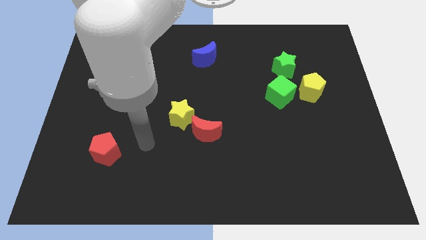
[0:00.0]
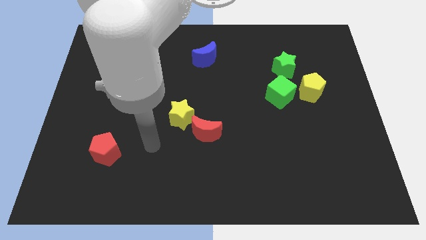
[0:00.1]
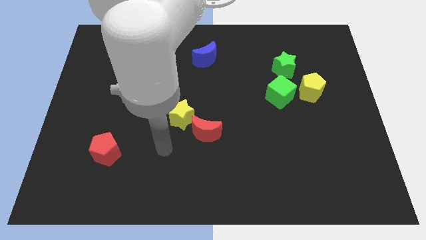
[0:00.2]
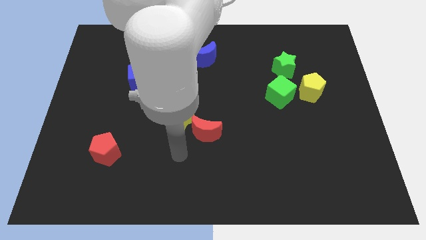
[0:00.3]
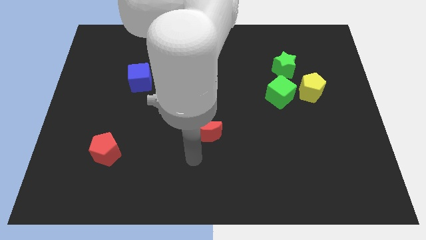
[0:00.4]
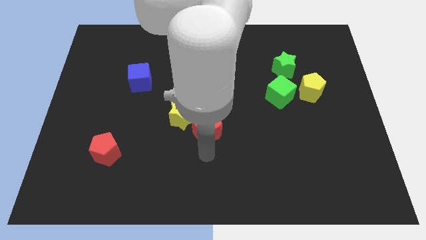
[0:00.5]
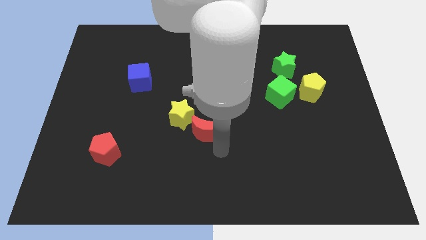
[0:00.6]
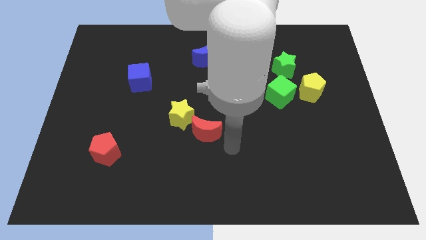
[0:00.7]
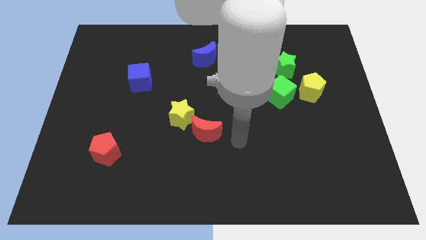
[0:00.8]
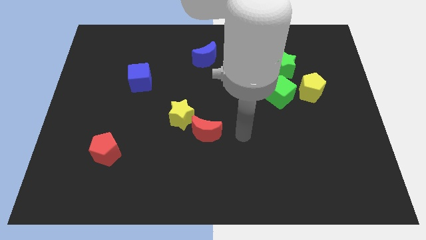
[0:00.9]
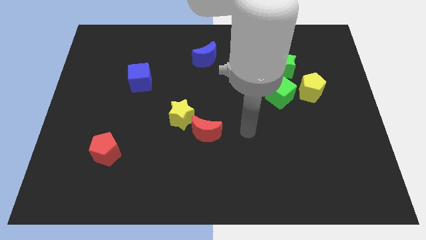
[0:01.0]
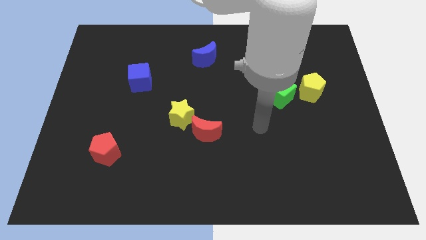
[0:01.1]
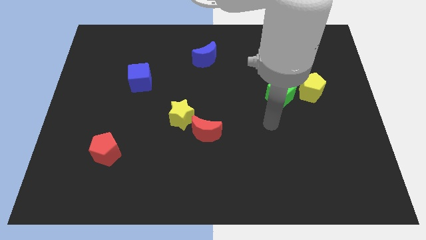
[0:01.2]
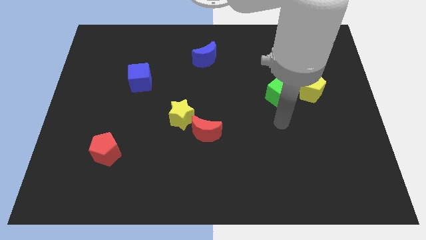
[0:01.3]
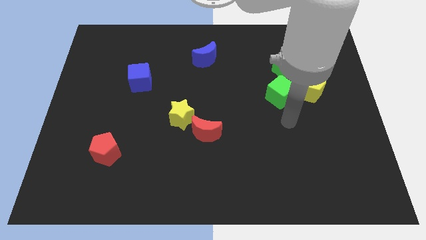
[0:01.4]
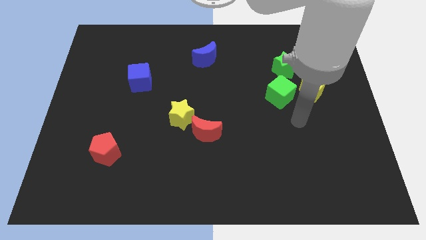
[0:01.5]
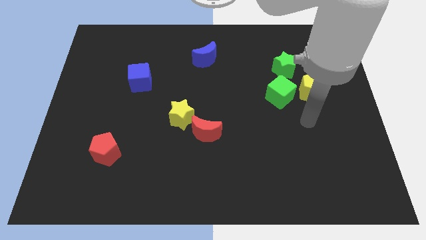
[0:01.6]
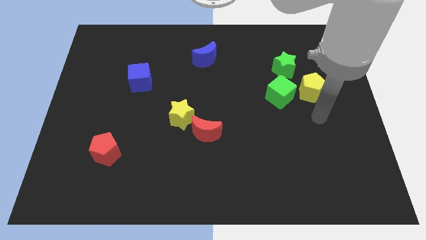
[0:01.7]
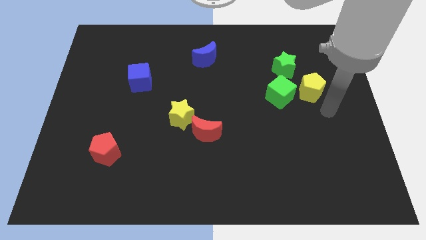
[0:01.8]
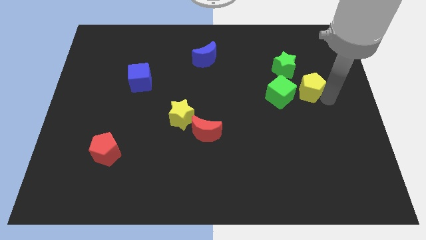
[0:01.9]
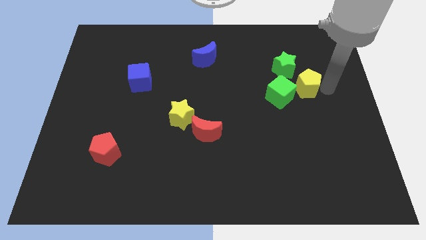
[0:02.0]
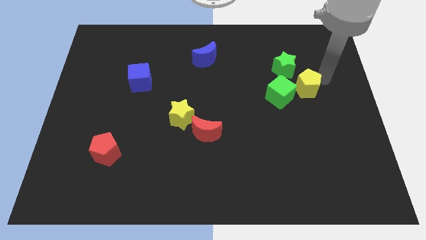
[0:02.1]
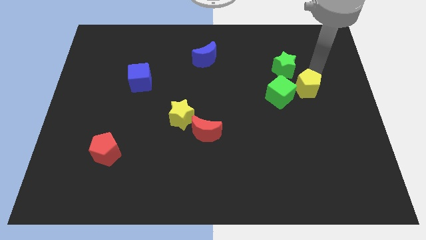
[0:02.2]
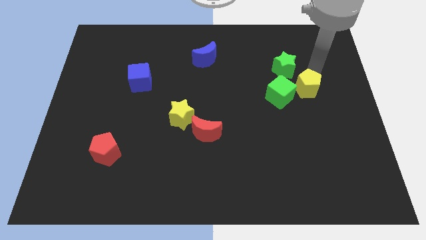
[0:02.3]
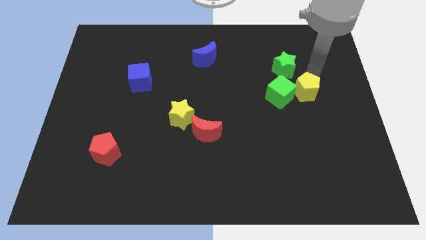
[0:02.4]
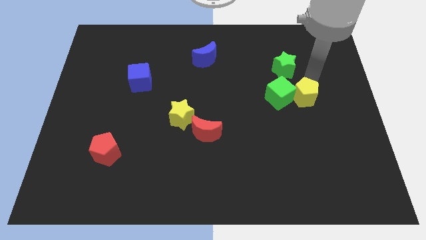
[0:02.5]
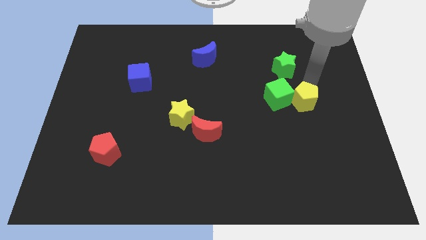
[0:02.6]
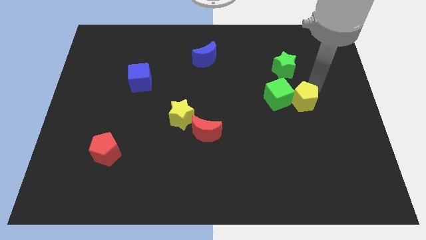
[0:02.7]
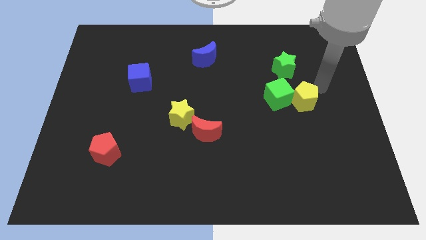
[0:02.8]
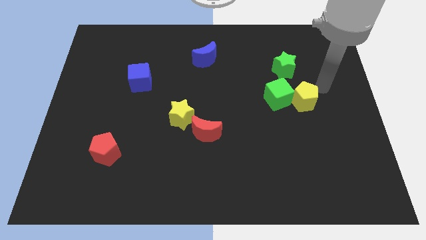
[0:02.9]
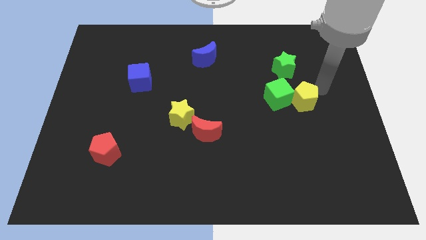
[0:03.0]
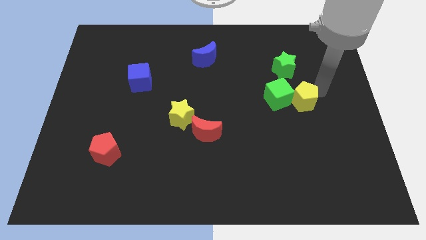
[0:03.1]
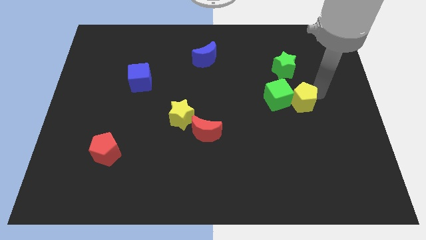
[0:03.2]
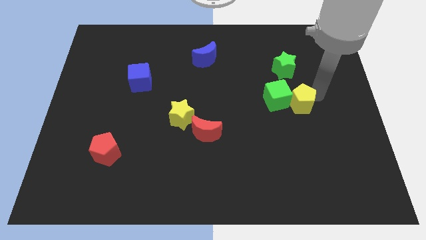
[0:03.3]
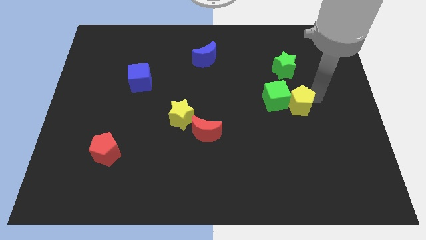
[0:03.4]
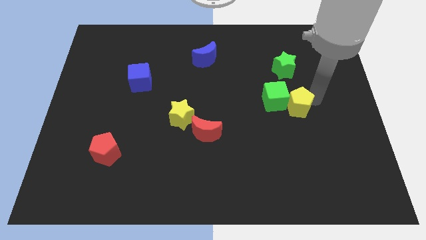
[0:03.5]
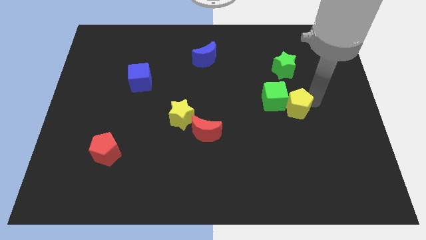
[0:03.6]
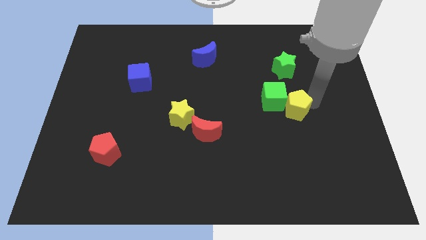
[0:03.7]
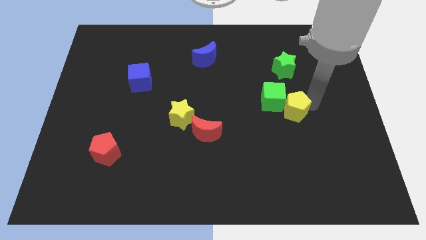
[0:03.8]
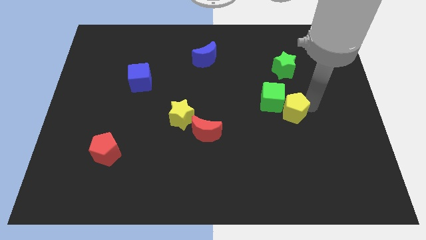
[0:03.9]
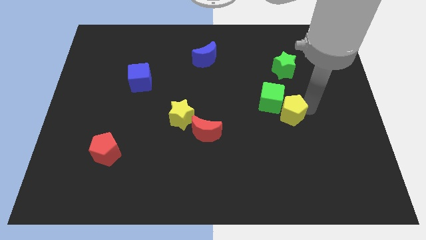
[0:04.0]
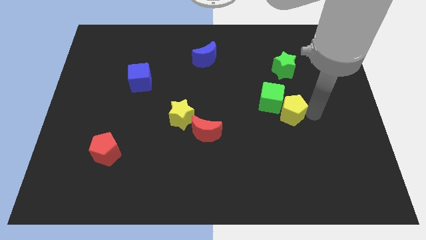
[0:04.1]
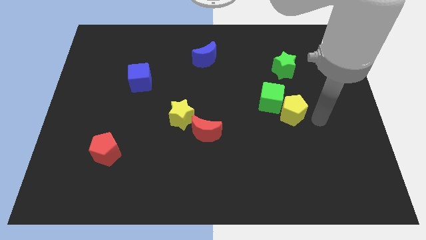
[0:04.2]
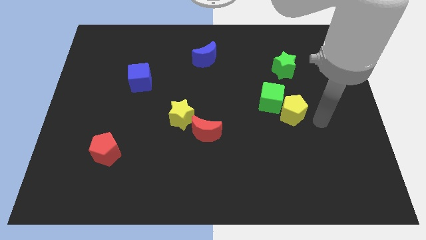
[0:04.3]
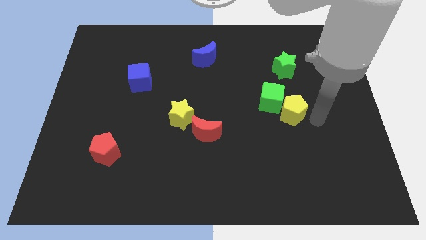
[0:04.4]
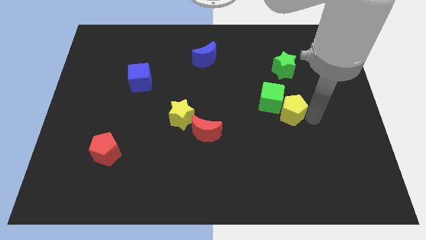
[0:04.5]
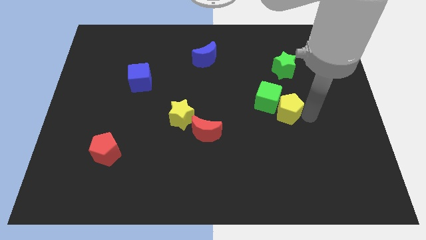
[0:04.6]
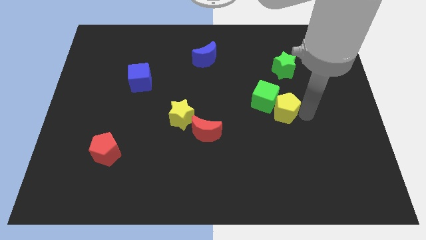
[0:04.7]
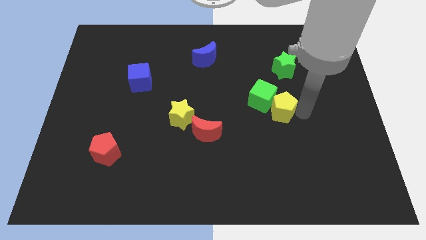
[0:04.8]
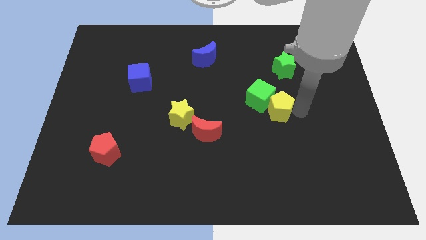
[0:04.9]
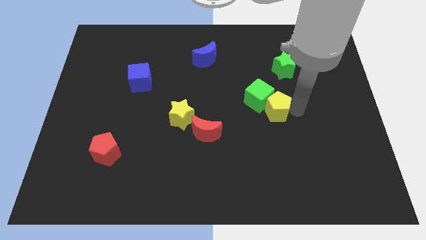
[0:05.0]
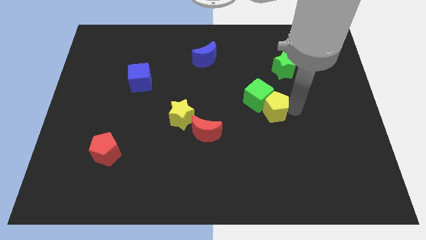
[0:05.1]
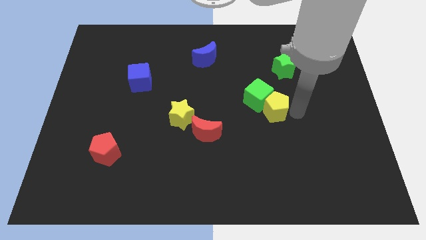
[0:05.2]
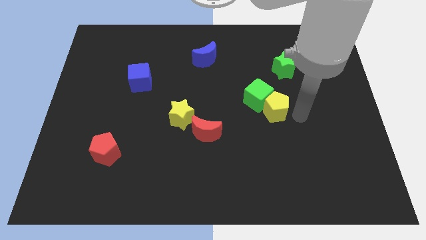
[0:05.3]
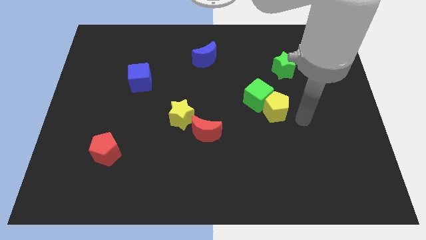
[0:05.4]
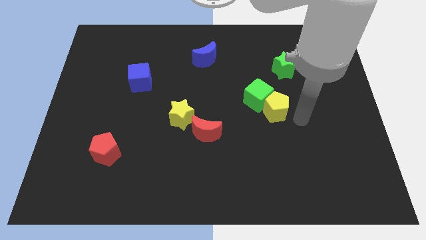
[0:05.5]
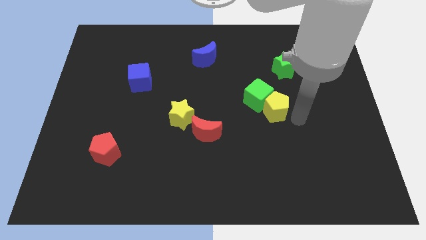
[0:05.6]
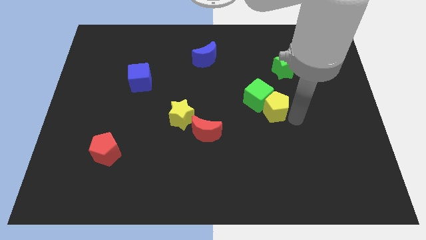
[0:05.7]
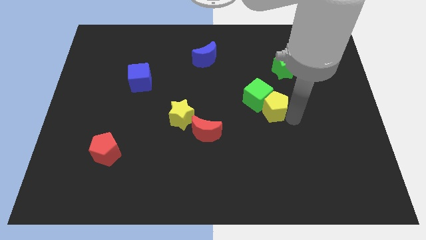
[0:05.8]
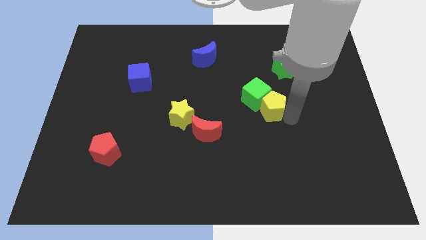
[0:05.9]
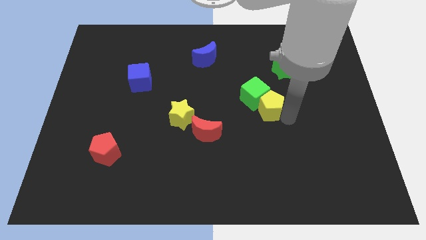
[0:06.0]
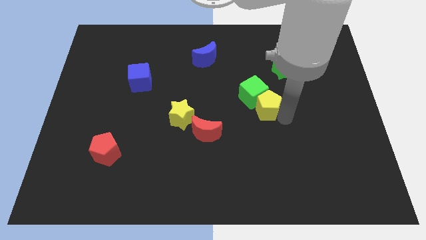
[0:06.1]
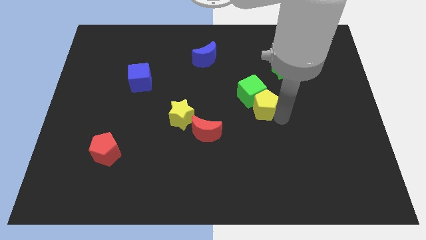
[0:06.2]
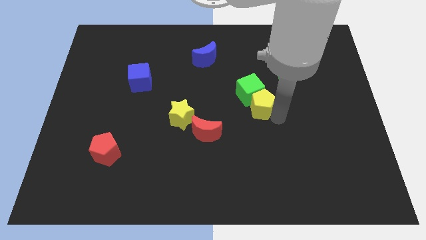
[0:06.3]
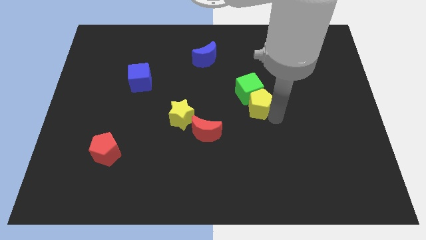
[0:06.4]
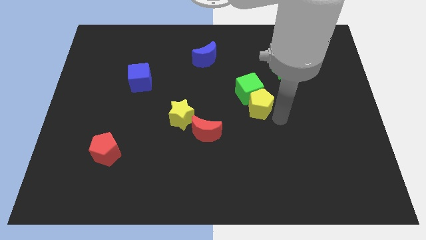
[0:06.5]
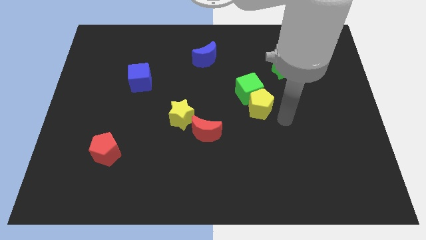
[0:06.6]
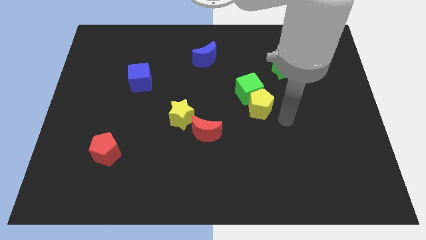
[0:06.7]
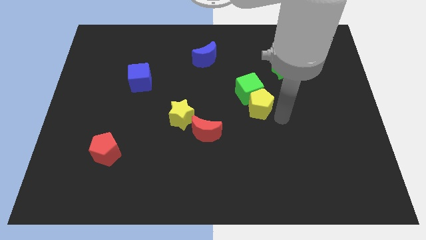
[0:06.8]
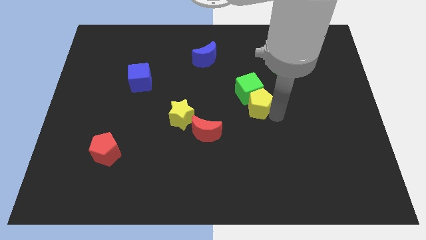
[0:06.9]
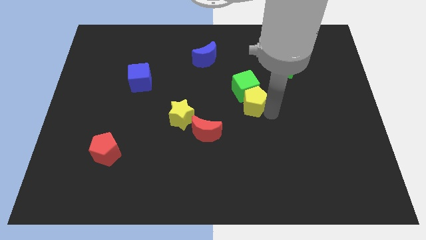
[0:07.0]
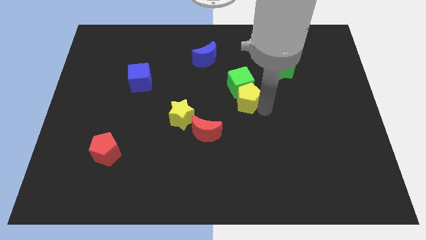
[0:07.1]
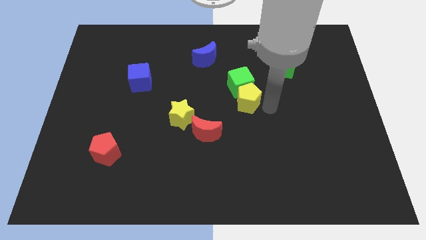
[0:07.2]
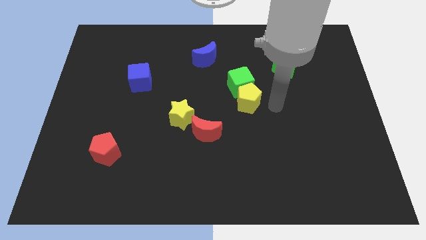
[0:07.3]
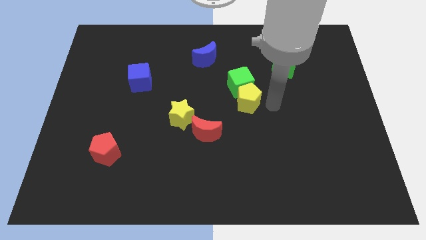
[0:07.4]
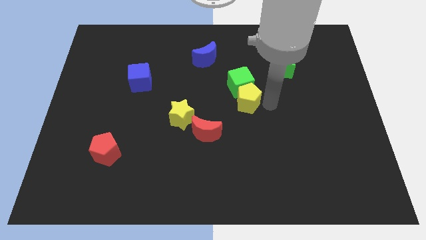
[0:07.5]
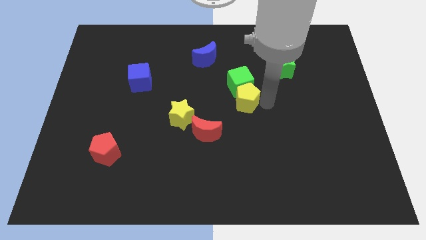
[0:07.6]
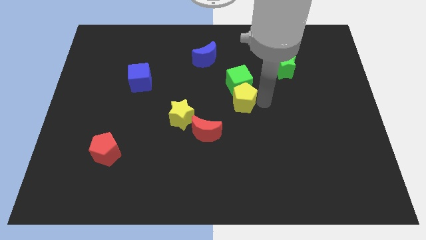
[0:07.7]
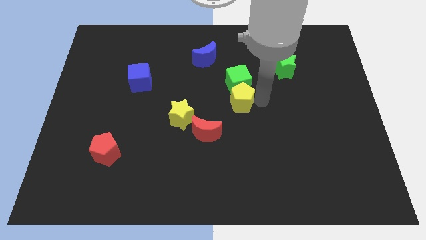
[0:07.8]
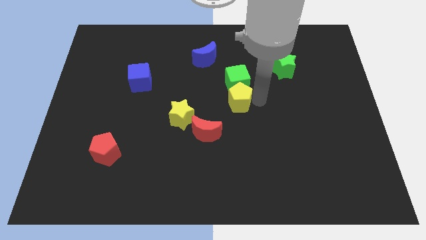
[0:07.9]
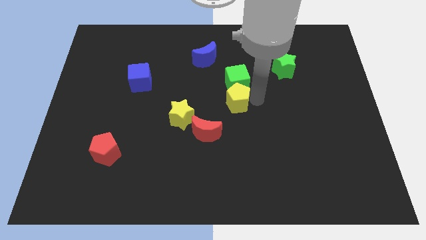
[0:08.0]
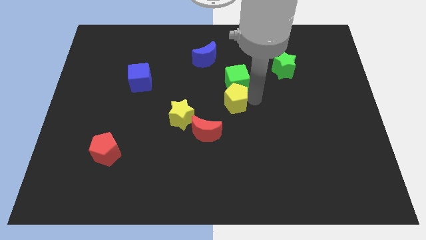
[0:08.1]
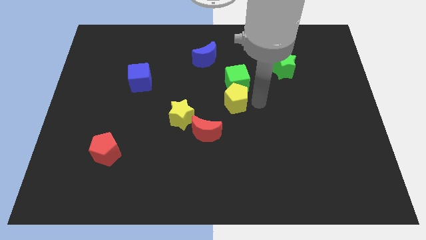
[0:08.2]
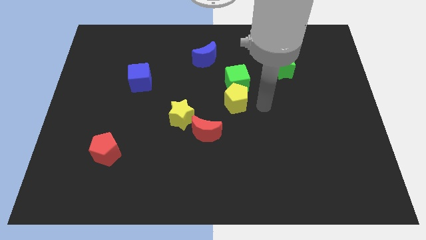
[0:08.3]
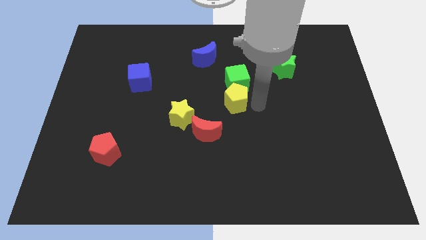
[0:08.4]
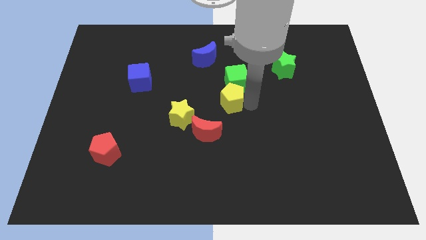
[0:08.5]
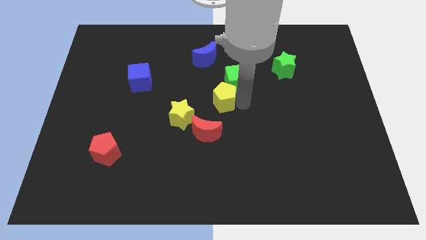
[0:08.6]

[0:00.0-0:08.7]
slide the yellow pentagon to the top of the red moon
